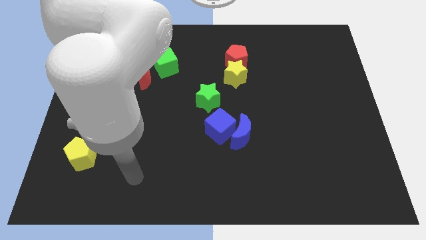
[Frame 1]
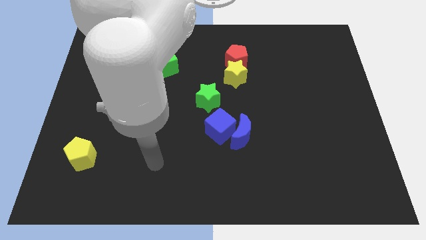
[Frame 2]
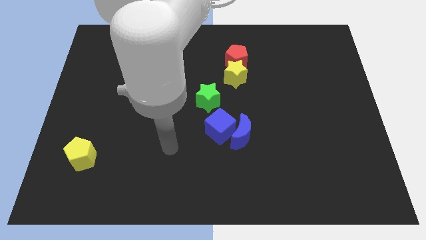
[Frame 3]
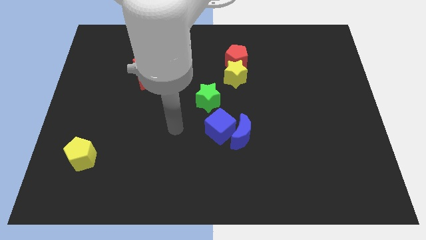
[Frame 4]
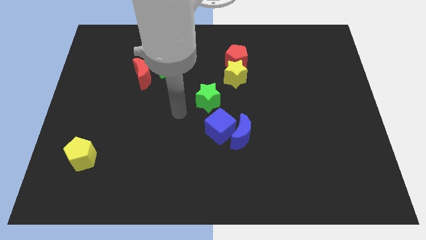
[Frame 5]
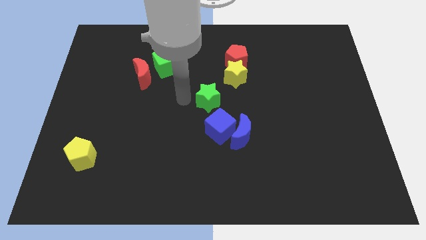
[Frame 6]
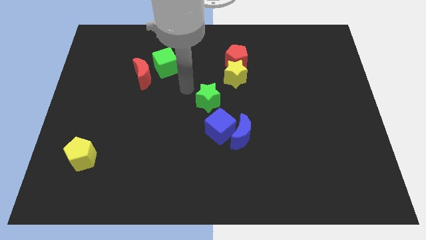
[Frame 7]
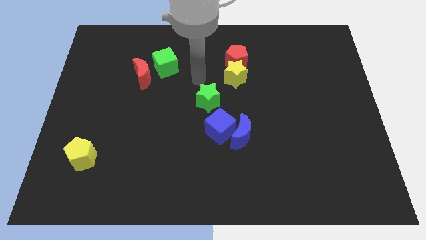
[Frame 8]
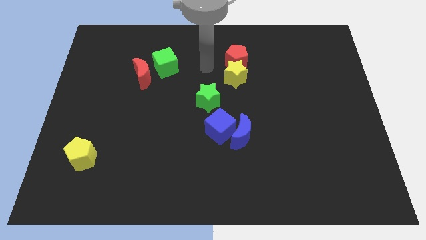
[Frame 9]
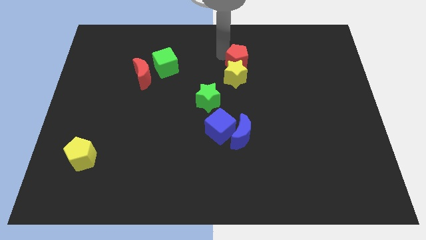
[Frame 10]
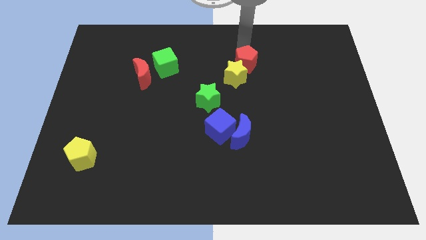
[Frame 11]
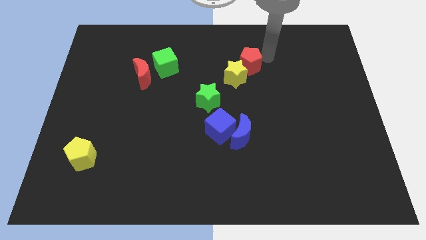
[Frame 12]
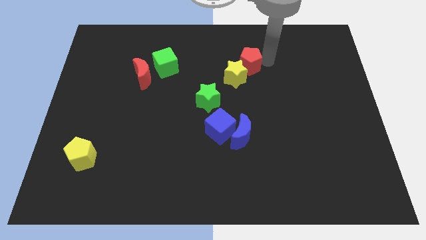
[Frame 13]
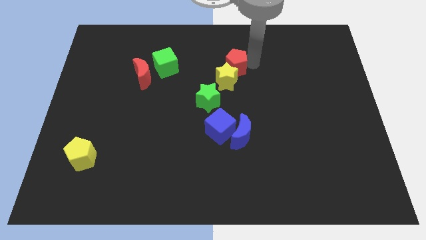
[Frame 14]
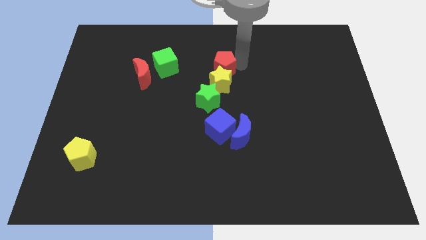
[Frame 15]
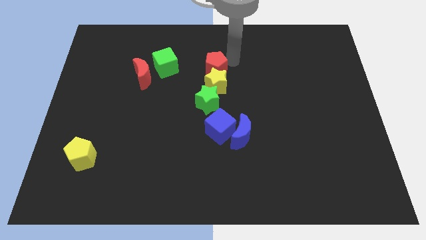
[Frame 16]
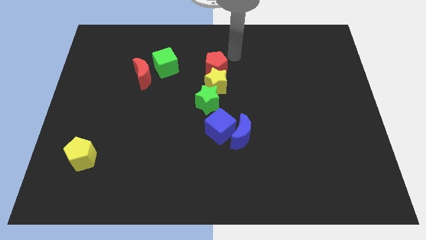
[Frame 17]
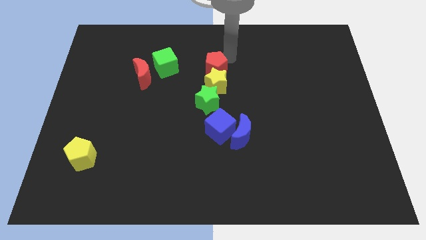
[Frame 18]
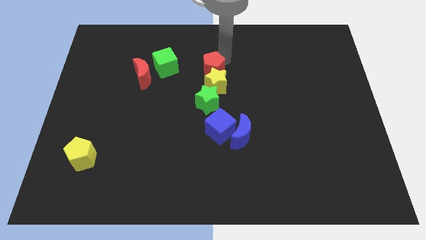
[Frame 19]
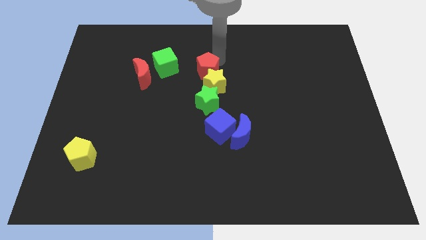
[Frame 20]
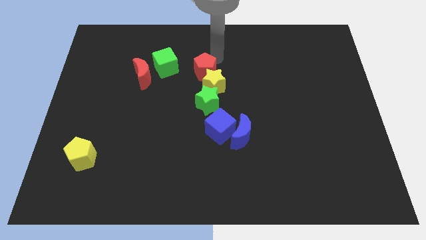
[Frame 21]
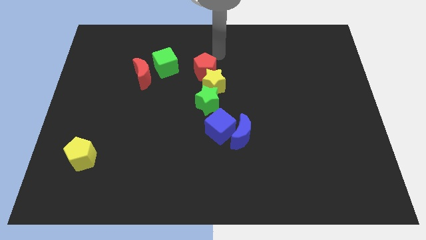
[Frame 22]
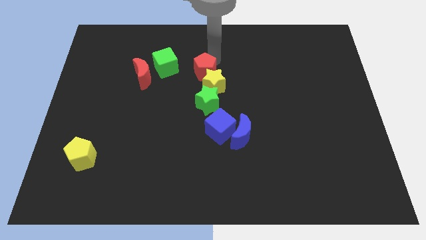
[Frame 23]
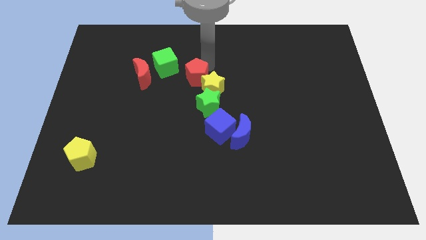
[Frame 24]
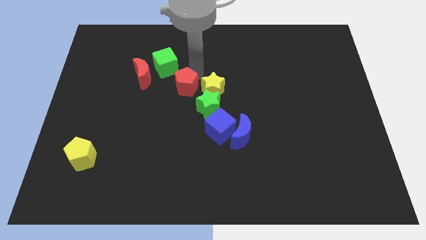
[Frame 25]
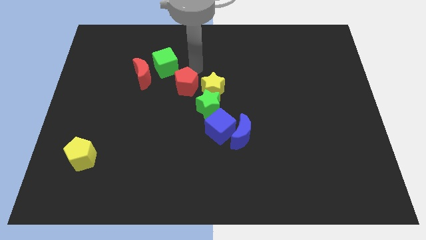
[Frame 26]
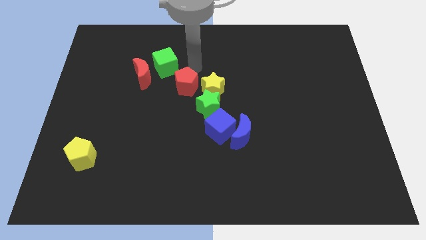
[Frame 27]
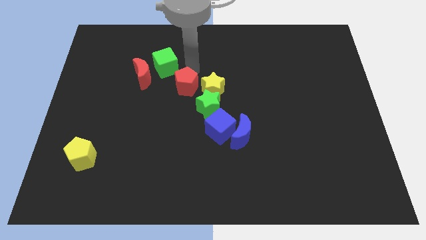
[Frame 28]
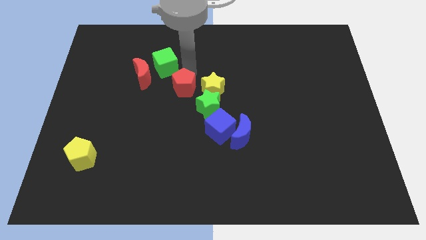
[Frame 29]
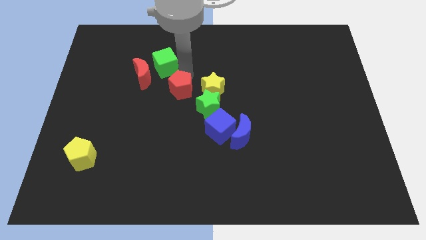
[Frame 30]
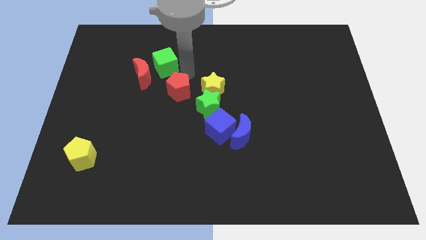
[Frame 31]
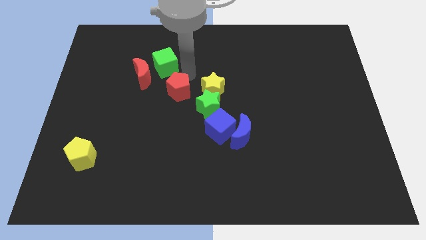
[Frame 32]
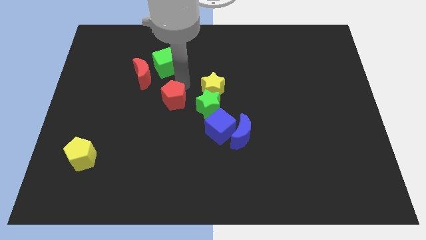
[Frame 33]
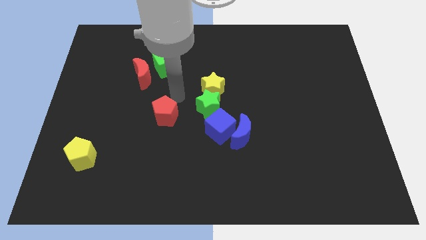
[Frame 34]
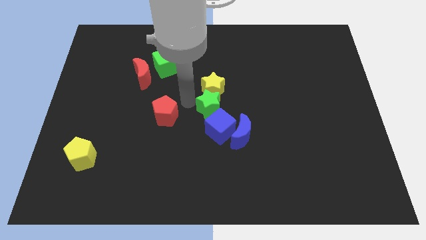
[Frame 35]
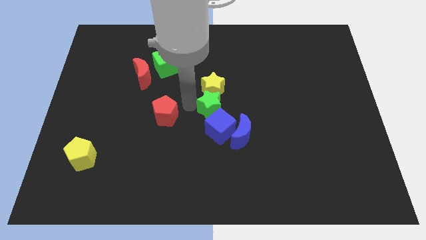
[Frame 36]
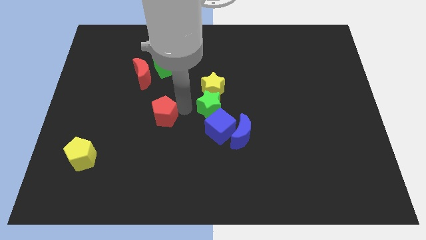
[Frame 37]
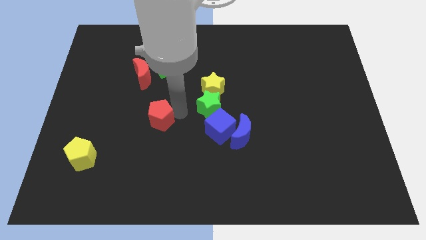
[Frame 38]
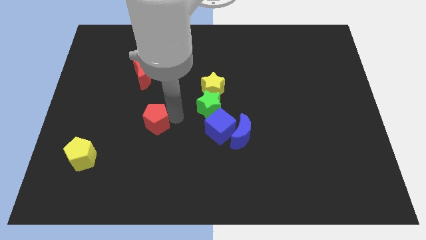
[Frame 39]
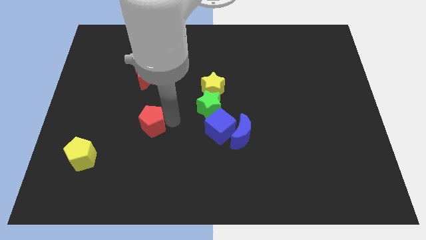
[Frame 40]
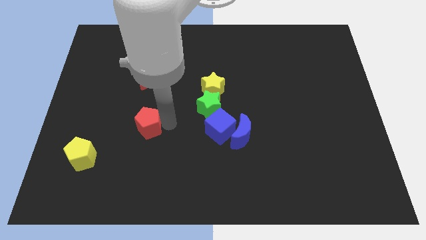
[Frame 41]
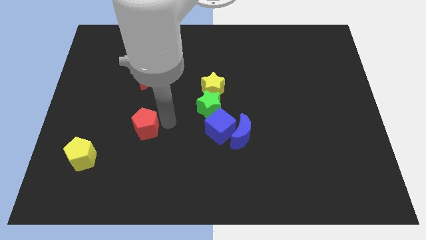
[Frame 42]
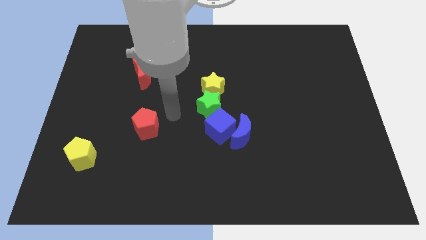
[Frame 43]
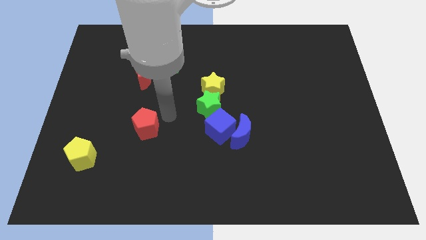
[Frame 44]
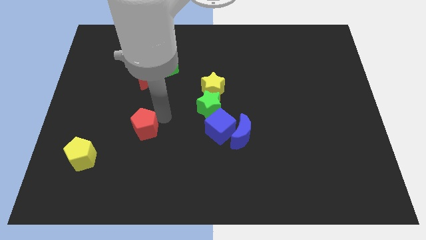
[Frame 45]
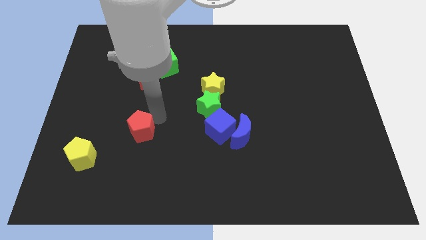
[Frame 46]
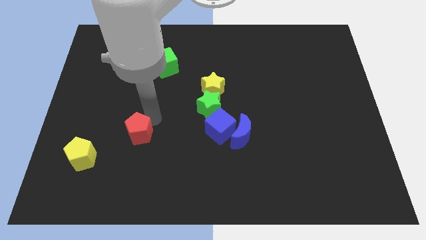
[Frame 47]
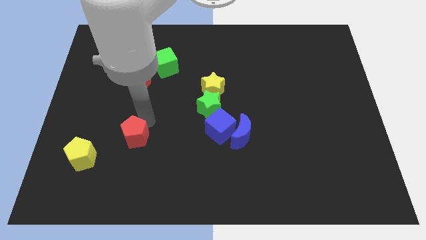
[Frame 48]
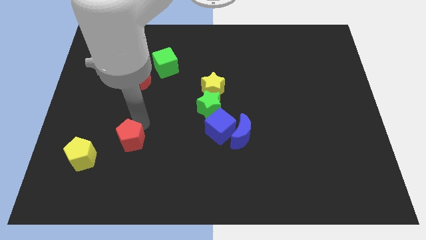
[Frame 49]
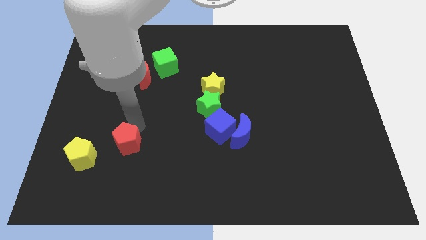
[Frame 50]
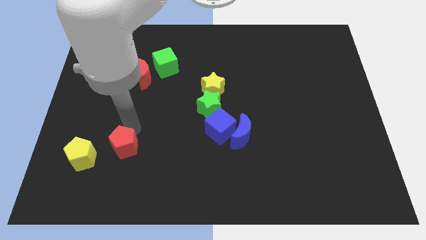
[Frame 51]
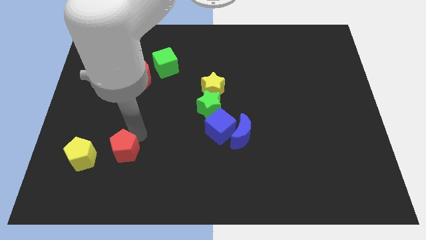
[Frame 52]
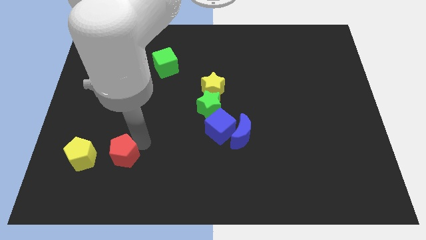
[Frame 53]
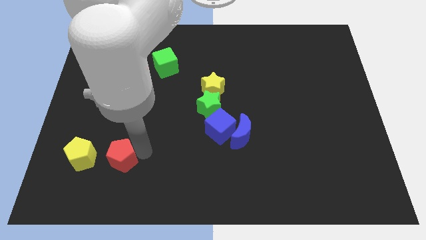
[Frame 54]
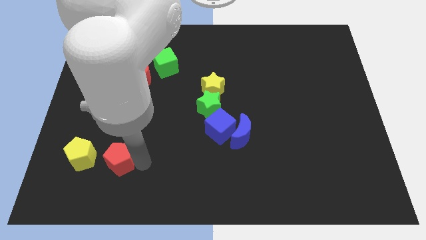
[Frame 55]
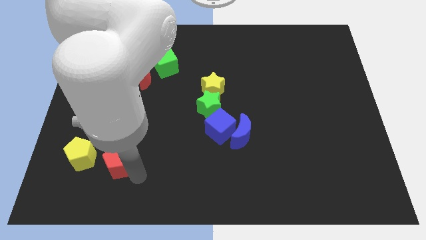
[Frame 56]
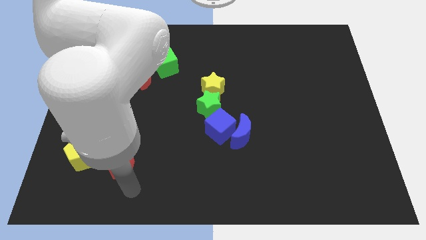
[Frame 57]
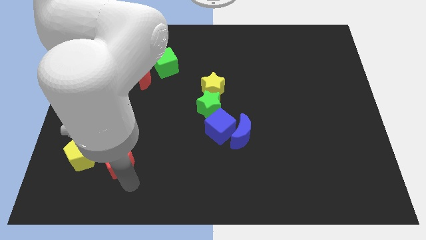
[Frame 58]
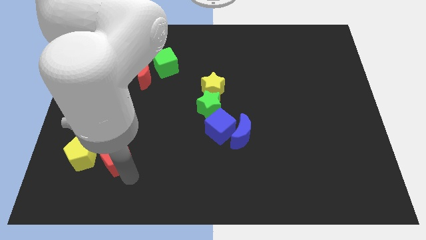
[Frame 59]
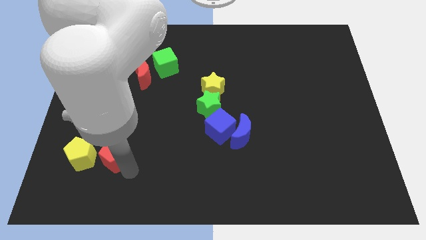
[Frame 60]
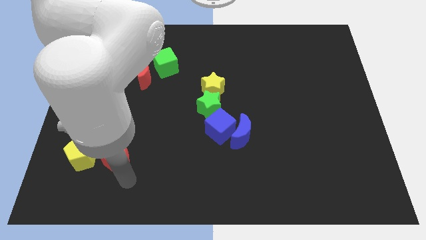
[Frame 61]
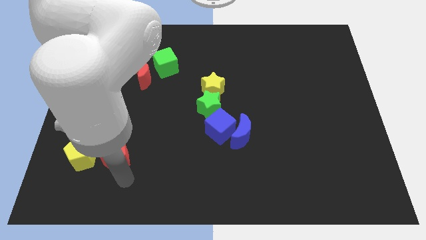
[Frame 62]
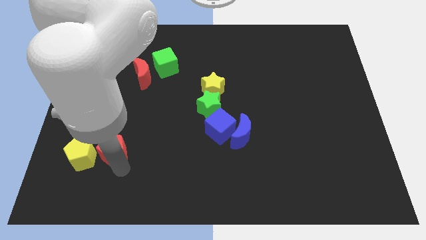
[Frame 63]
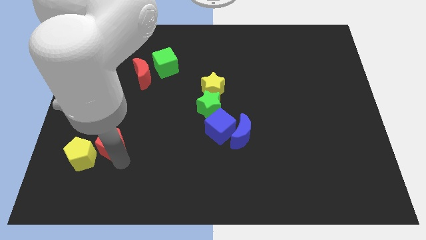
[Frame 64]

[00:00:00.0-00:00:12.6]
put the red pentagon close to the yellow pentagon
